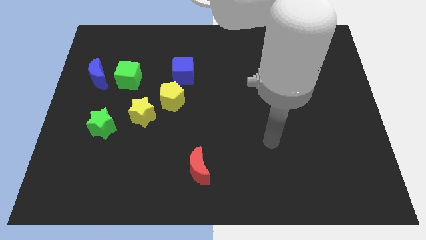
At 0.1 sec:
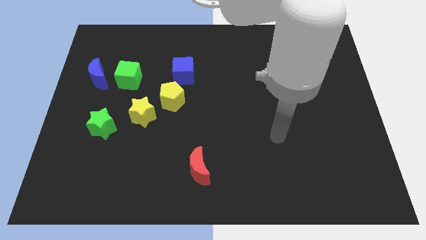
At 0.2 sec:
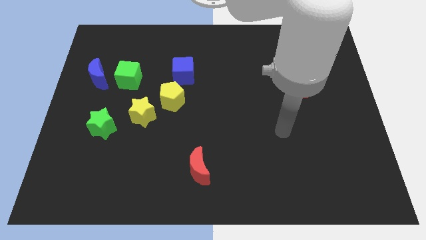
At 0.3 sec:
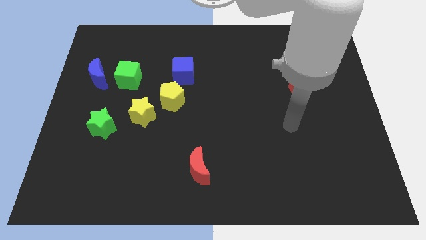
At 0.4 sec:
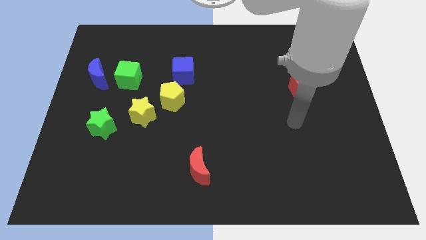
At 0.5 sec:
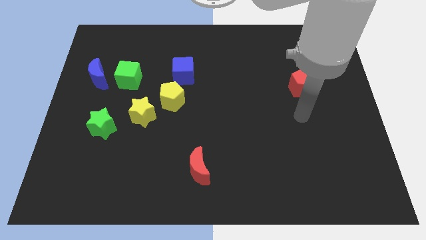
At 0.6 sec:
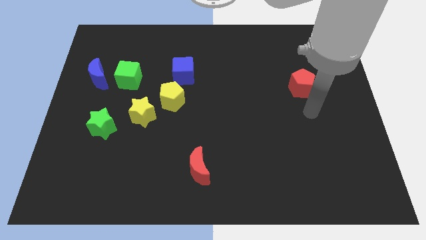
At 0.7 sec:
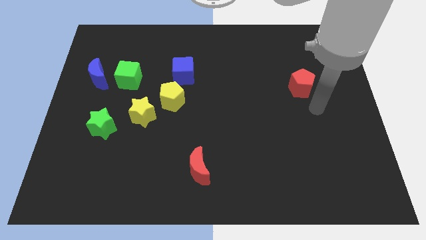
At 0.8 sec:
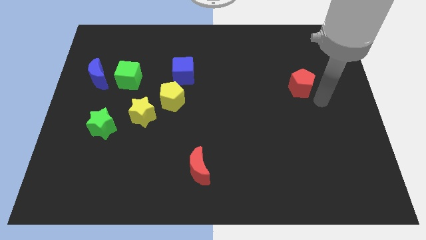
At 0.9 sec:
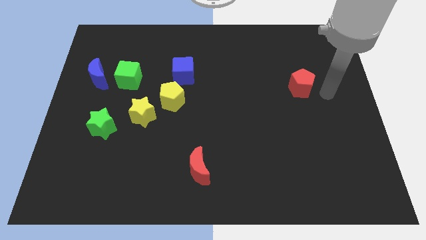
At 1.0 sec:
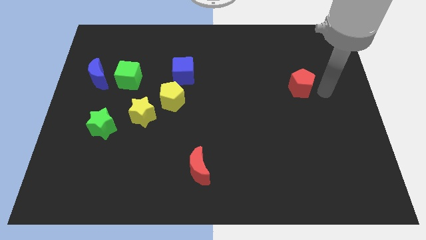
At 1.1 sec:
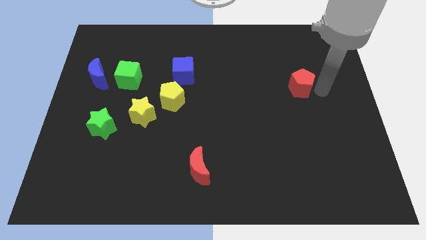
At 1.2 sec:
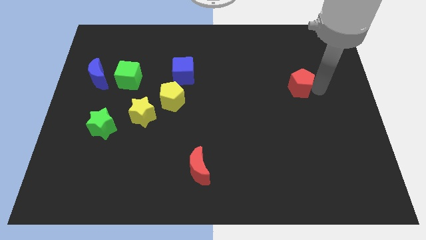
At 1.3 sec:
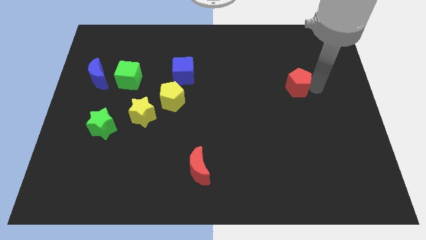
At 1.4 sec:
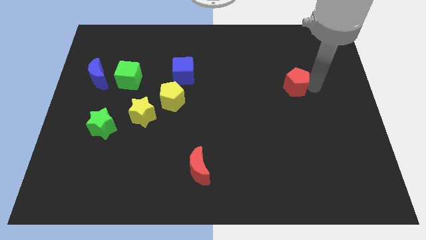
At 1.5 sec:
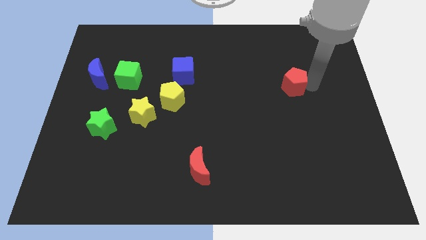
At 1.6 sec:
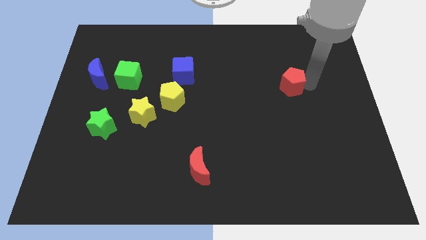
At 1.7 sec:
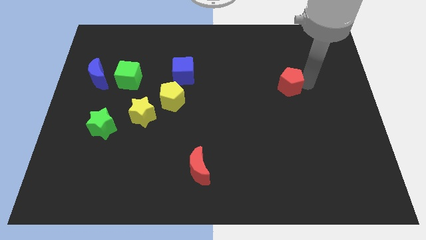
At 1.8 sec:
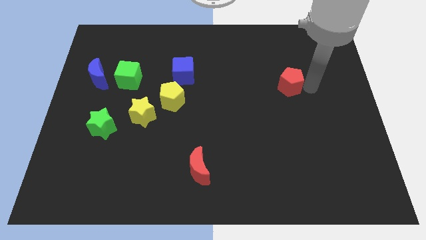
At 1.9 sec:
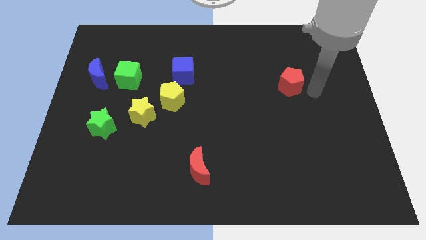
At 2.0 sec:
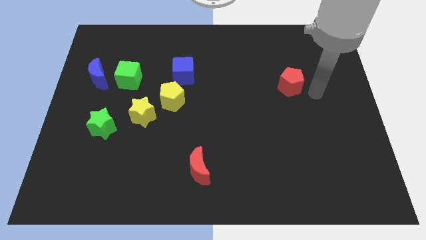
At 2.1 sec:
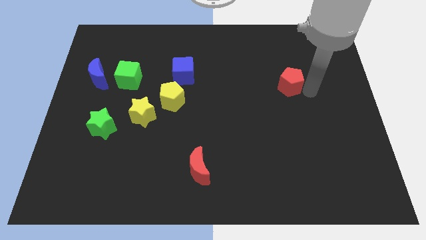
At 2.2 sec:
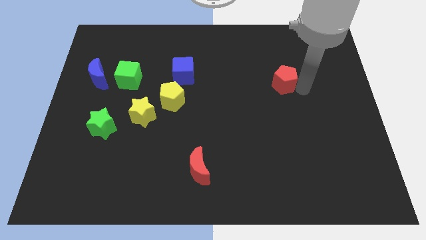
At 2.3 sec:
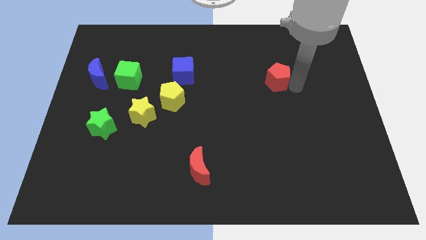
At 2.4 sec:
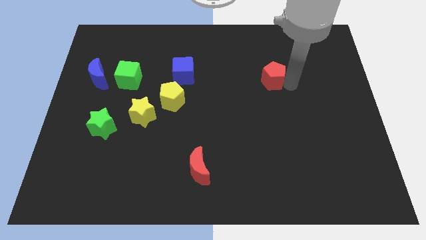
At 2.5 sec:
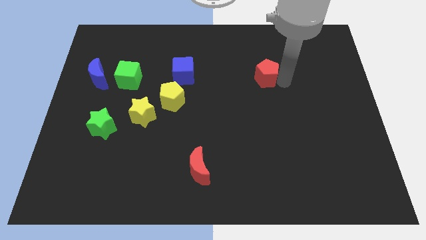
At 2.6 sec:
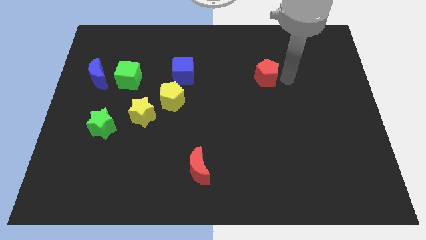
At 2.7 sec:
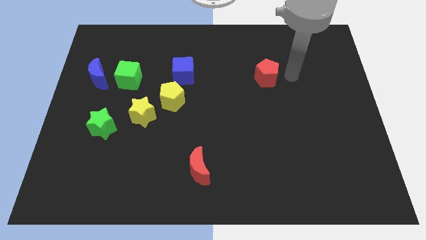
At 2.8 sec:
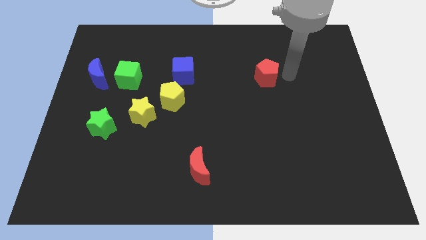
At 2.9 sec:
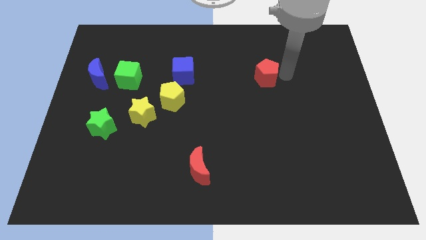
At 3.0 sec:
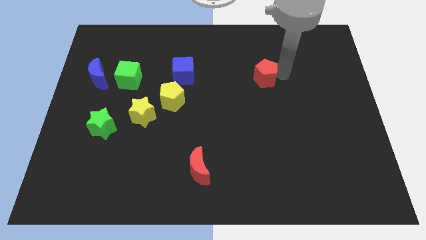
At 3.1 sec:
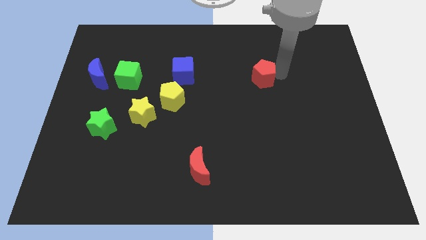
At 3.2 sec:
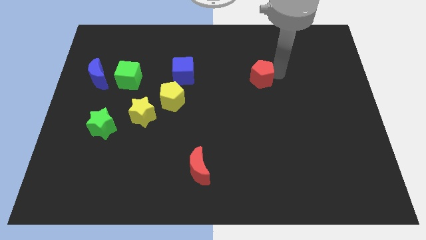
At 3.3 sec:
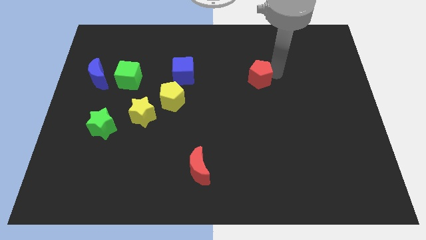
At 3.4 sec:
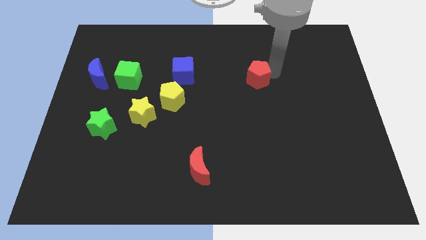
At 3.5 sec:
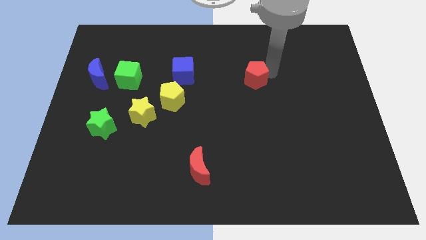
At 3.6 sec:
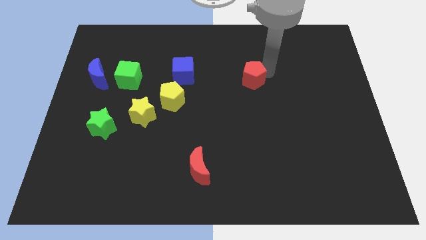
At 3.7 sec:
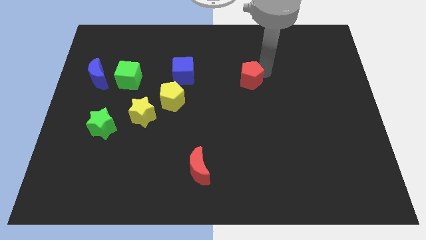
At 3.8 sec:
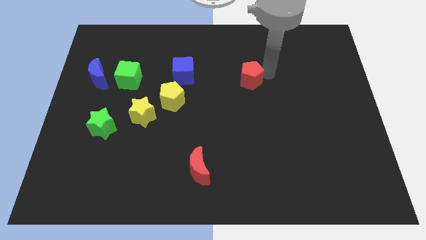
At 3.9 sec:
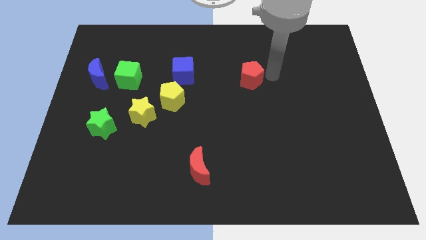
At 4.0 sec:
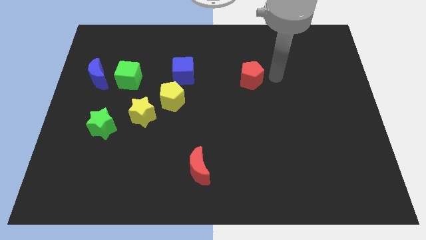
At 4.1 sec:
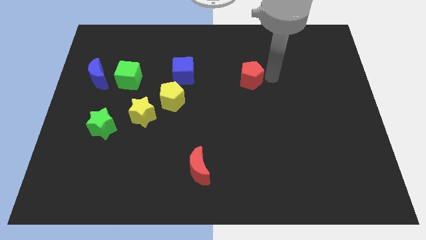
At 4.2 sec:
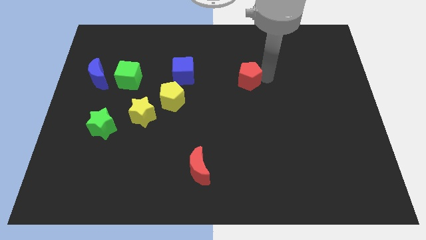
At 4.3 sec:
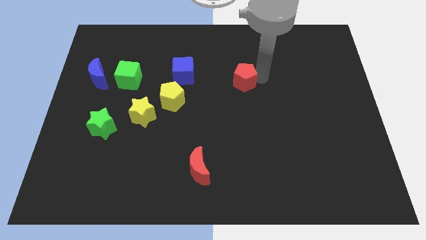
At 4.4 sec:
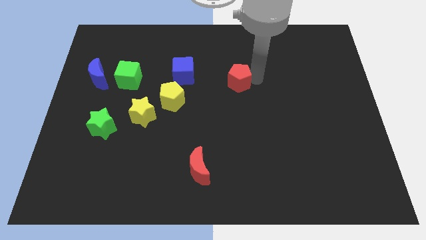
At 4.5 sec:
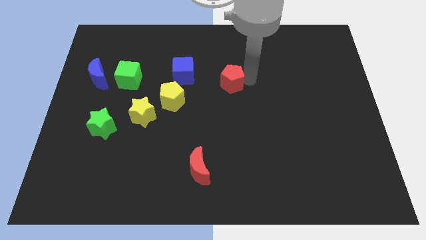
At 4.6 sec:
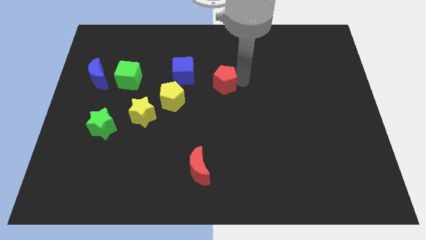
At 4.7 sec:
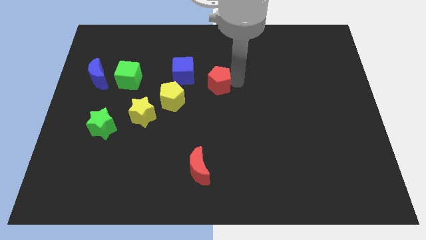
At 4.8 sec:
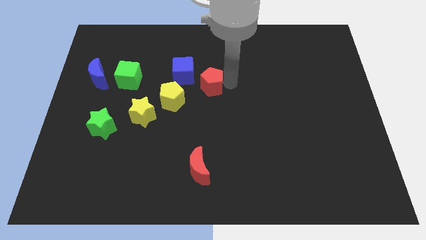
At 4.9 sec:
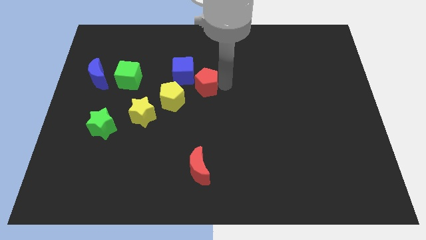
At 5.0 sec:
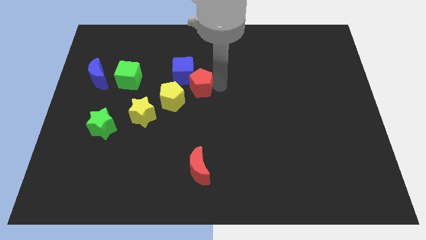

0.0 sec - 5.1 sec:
slide the red pentagon towards the blue cube

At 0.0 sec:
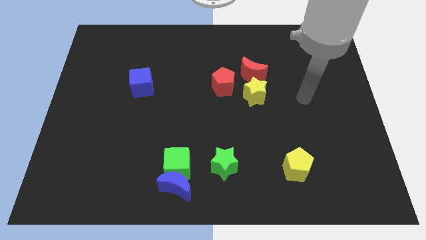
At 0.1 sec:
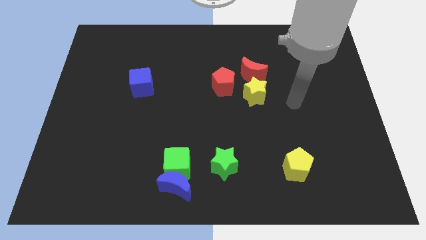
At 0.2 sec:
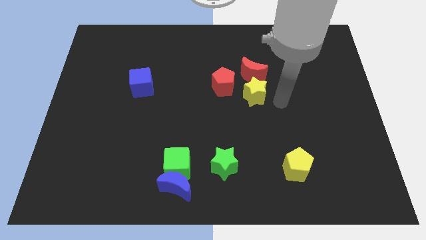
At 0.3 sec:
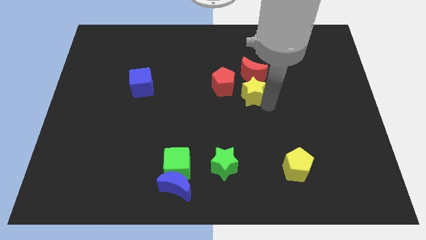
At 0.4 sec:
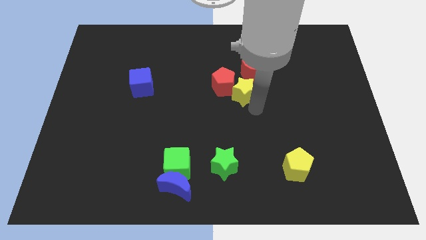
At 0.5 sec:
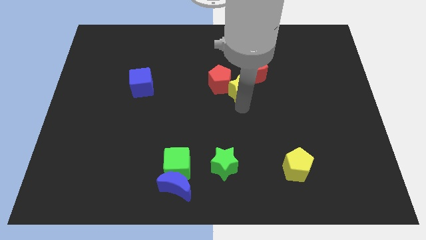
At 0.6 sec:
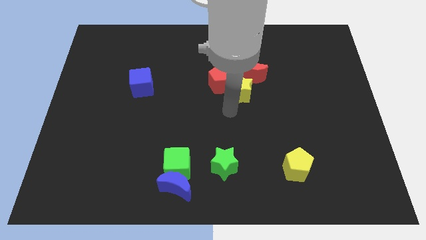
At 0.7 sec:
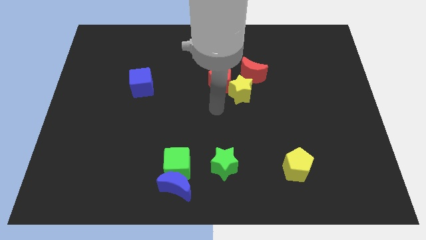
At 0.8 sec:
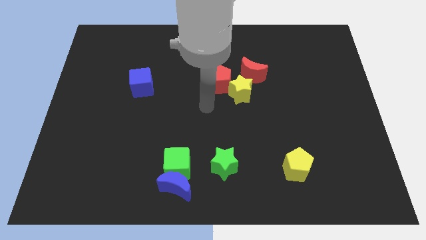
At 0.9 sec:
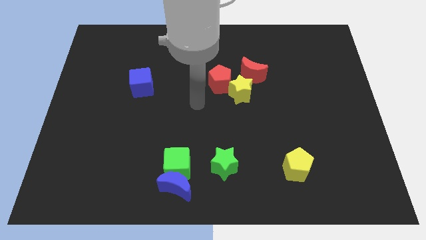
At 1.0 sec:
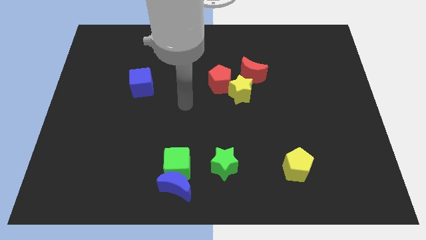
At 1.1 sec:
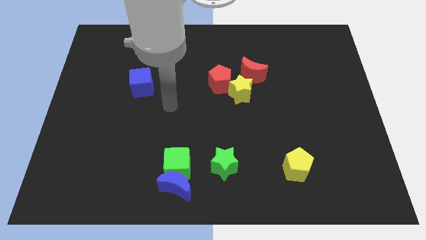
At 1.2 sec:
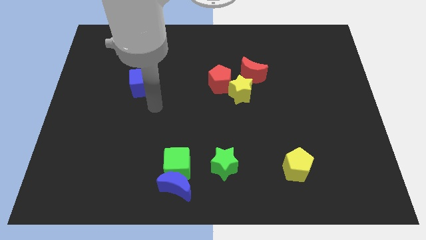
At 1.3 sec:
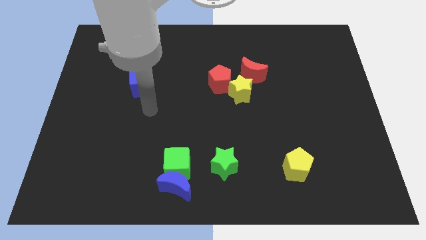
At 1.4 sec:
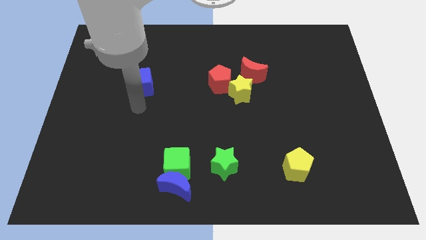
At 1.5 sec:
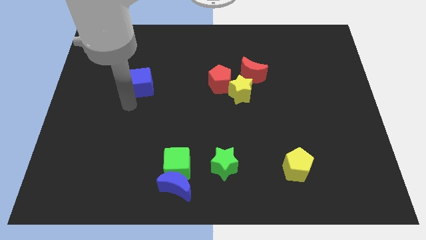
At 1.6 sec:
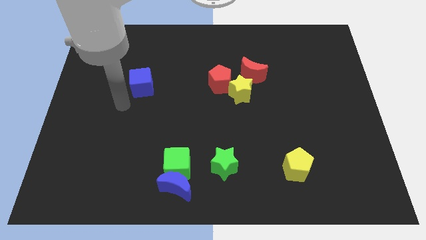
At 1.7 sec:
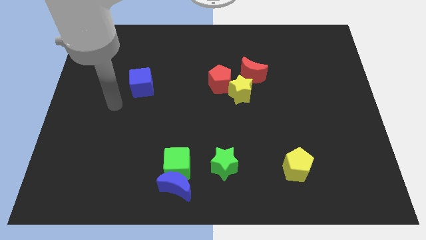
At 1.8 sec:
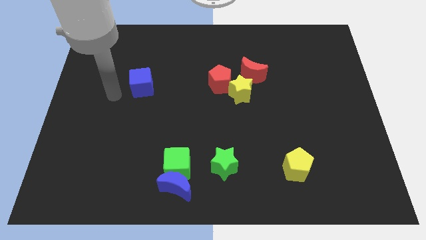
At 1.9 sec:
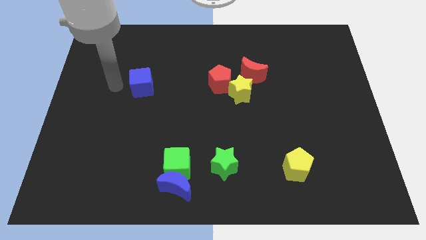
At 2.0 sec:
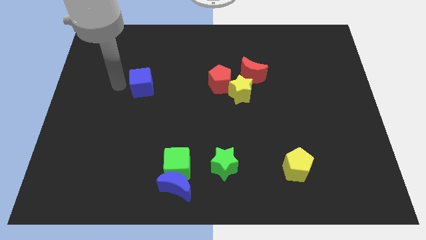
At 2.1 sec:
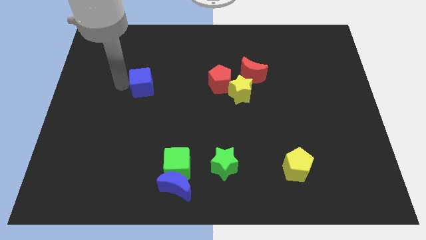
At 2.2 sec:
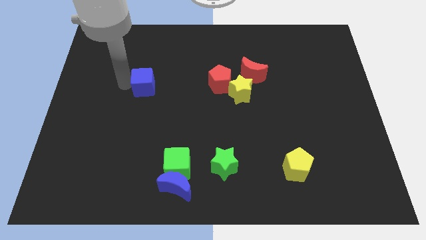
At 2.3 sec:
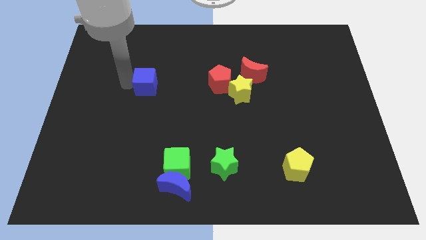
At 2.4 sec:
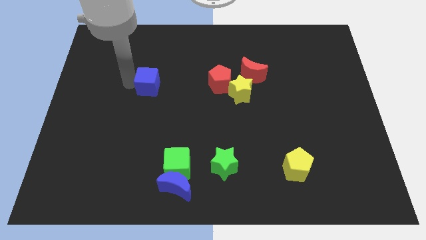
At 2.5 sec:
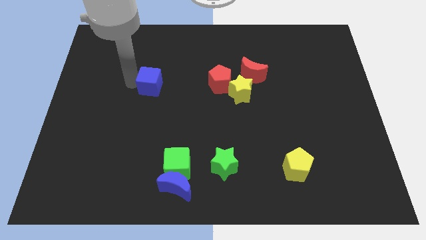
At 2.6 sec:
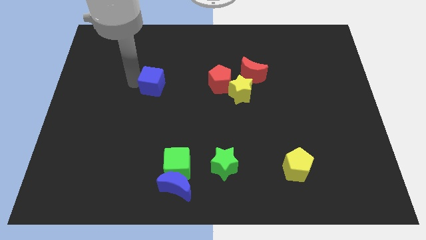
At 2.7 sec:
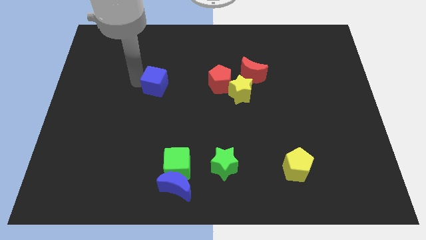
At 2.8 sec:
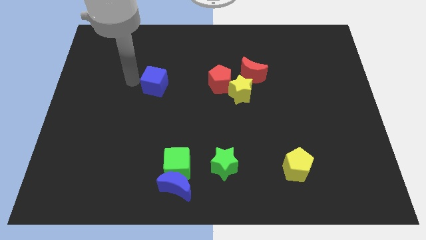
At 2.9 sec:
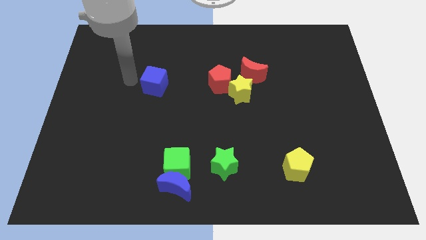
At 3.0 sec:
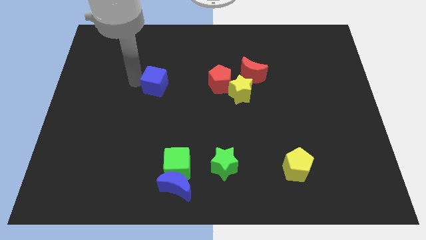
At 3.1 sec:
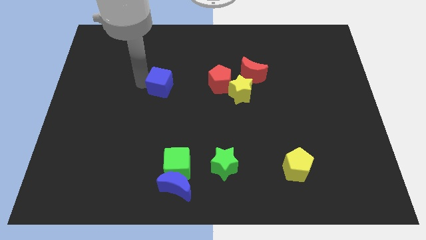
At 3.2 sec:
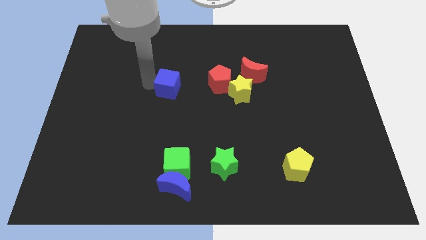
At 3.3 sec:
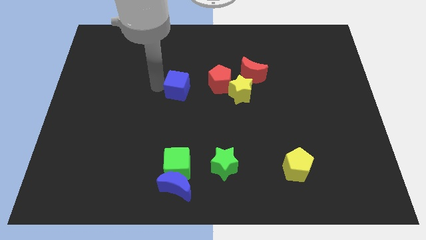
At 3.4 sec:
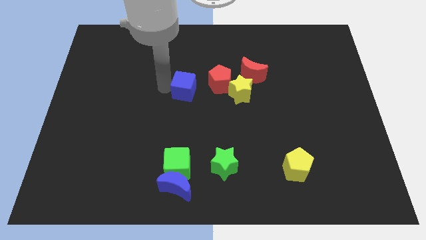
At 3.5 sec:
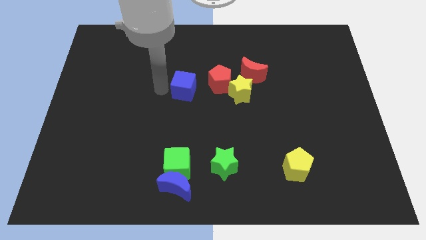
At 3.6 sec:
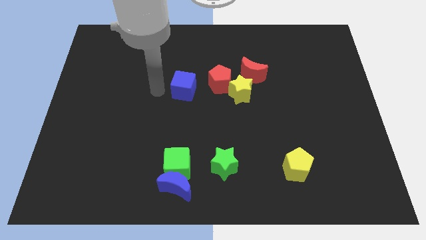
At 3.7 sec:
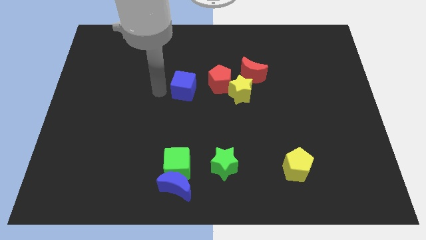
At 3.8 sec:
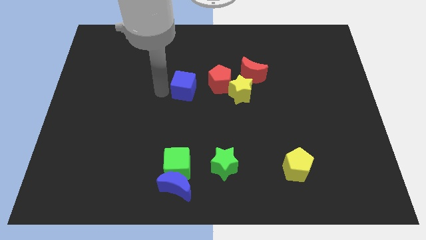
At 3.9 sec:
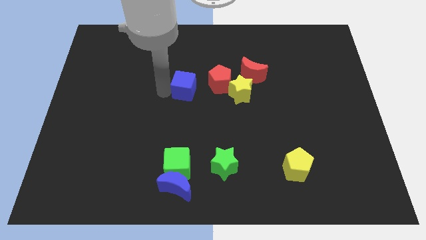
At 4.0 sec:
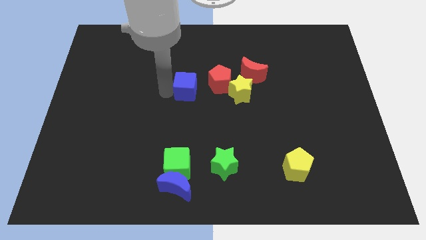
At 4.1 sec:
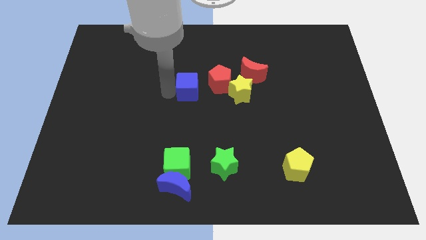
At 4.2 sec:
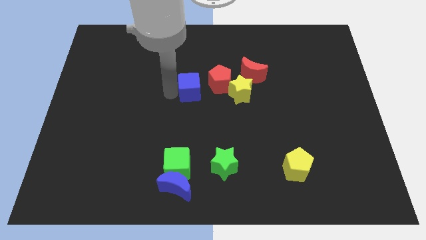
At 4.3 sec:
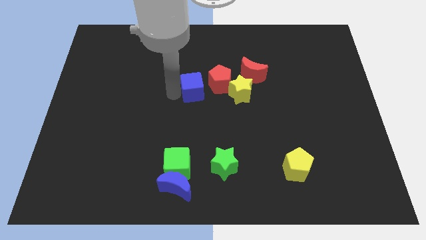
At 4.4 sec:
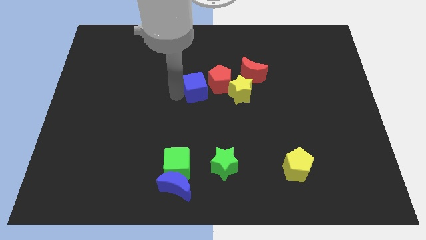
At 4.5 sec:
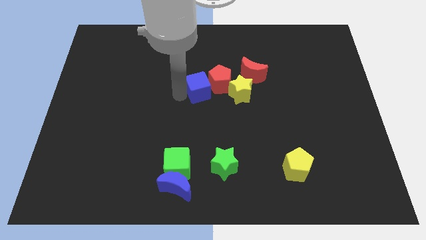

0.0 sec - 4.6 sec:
push the blue cube to the red pentagon
